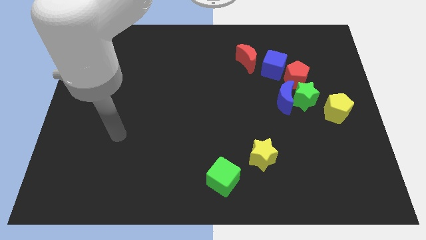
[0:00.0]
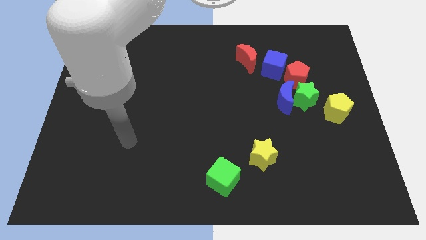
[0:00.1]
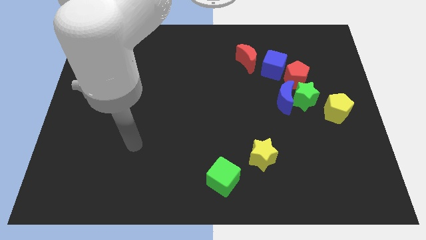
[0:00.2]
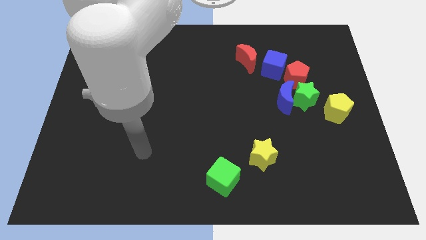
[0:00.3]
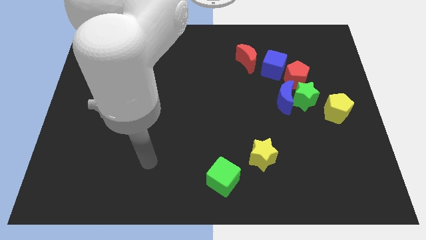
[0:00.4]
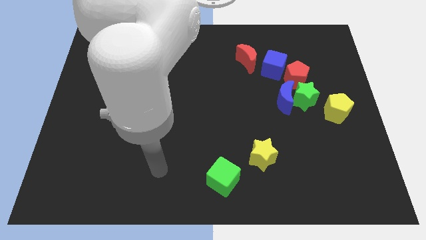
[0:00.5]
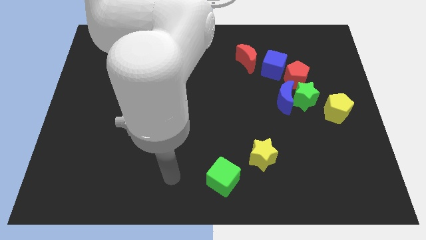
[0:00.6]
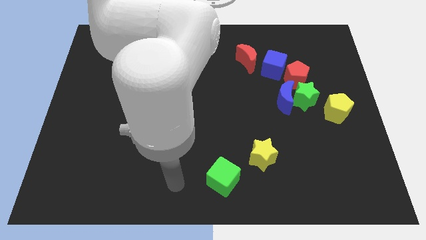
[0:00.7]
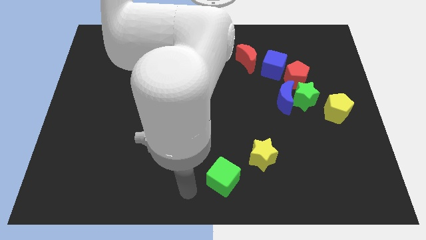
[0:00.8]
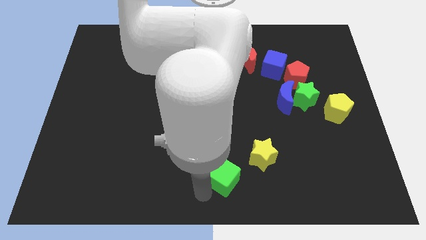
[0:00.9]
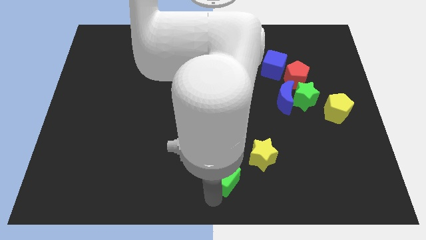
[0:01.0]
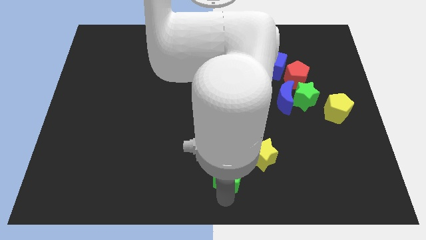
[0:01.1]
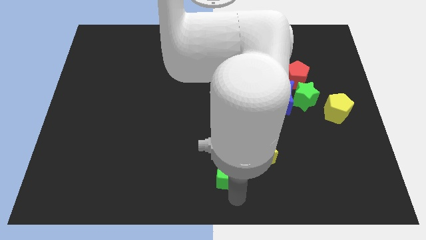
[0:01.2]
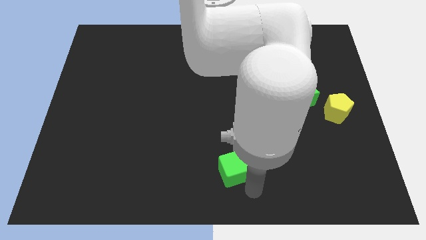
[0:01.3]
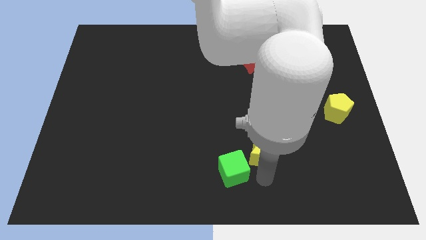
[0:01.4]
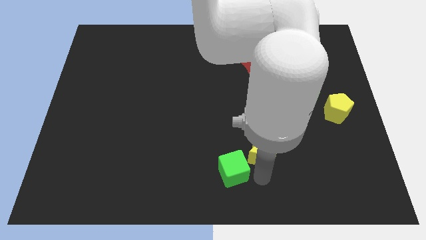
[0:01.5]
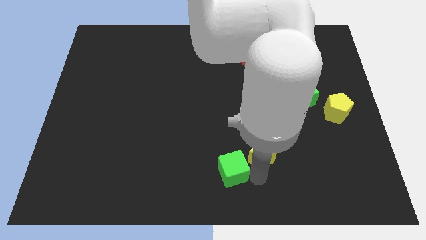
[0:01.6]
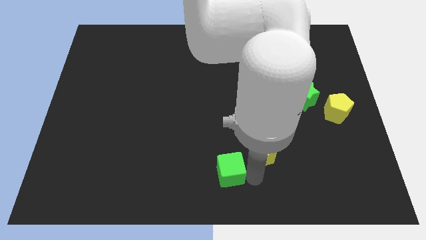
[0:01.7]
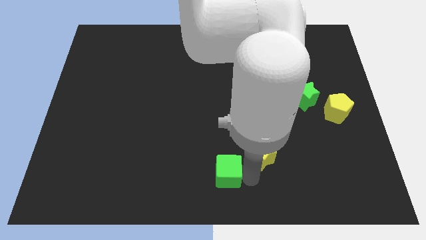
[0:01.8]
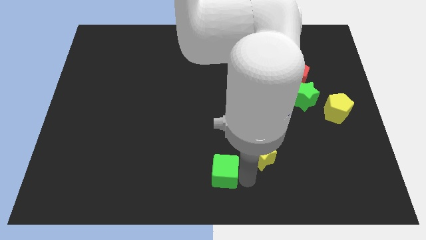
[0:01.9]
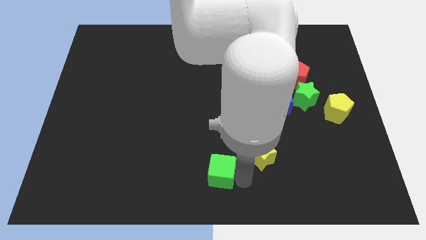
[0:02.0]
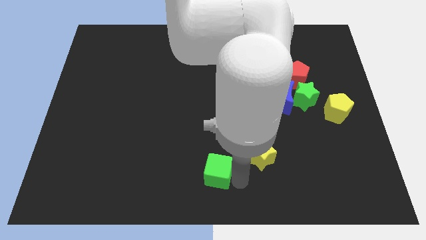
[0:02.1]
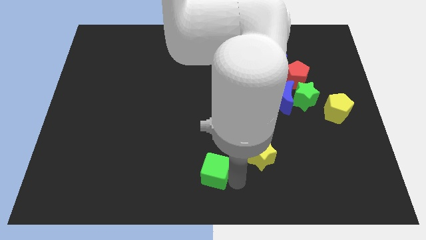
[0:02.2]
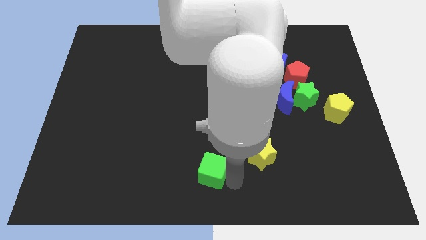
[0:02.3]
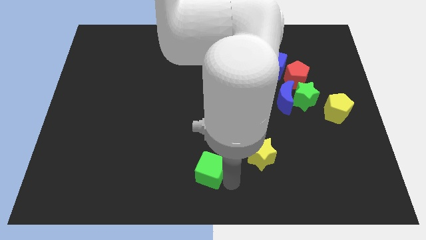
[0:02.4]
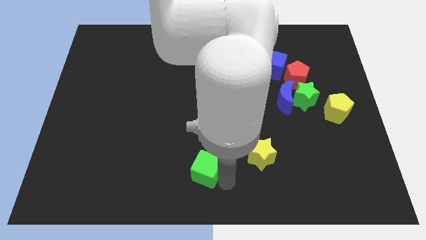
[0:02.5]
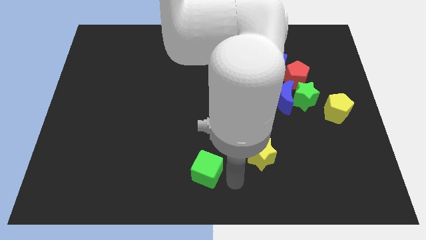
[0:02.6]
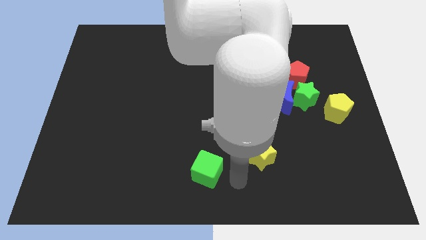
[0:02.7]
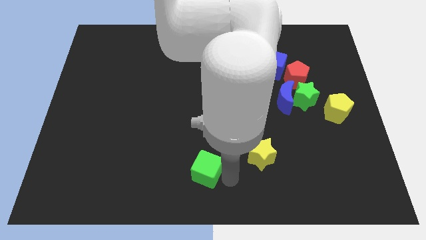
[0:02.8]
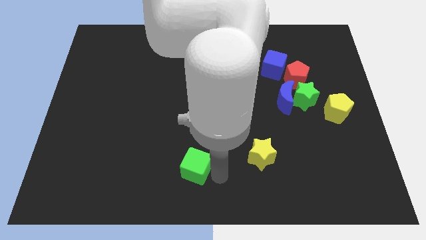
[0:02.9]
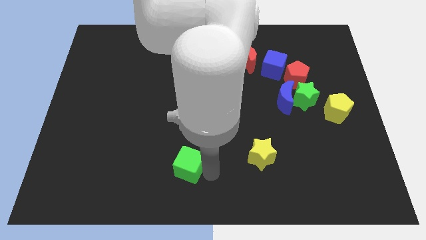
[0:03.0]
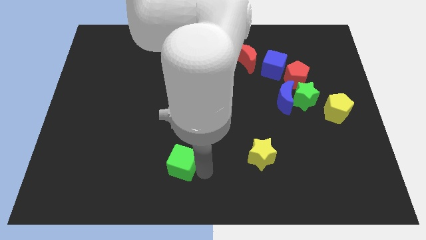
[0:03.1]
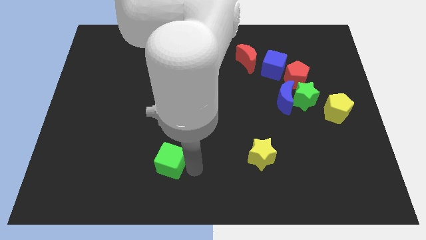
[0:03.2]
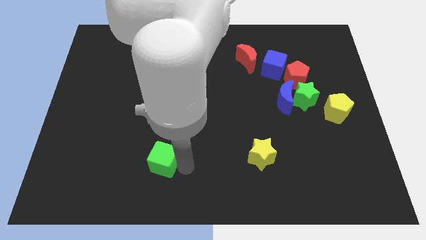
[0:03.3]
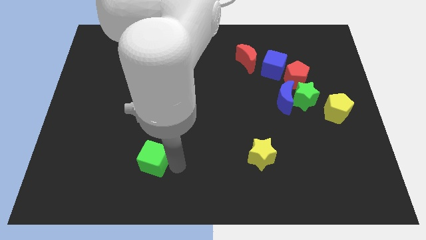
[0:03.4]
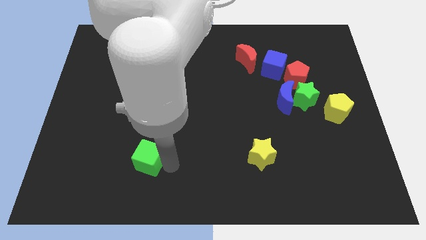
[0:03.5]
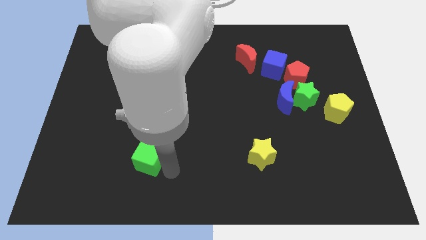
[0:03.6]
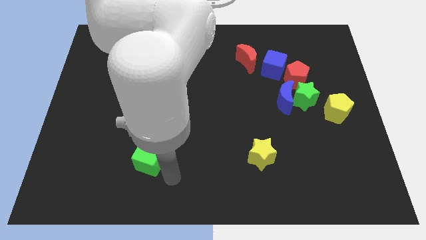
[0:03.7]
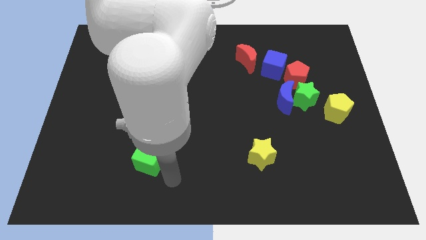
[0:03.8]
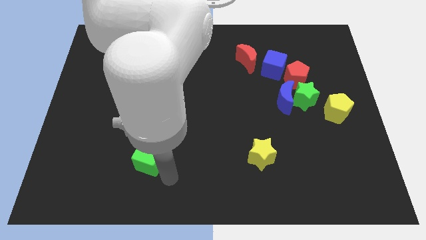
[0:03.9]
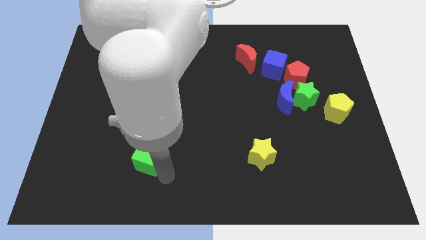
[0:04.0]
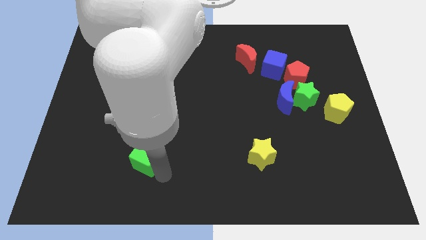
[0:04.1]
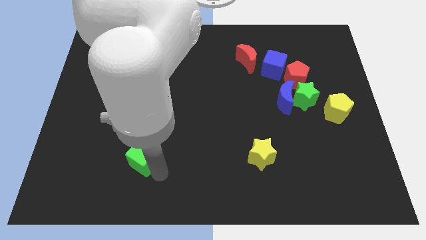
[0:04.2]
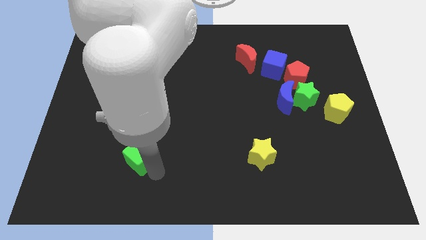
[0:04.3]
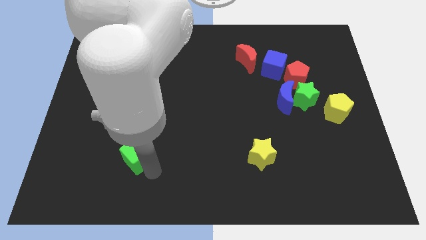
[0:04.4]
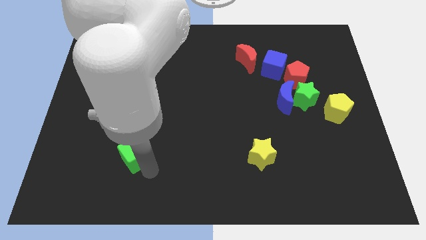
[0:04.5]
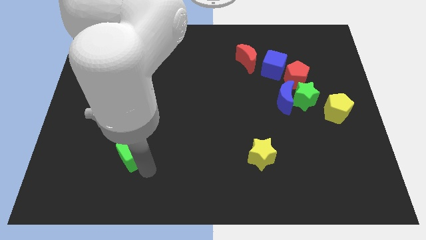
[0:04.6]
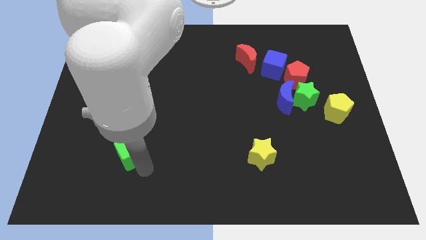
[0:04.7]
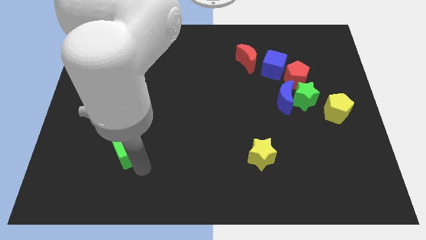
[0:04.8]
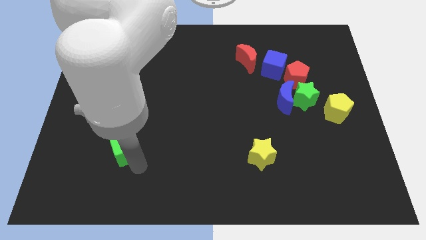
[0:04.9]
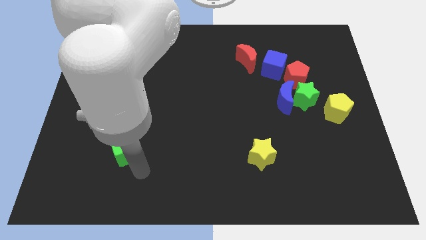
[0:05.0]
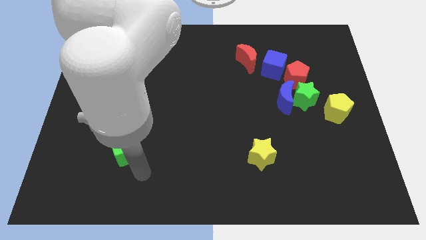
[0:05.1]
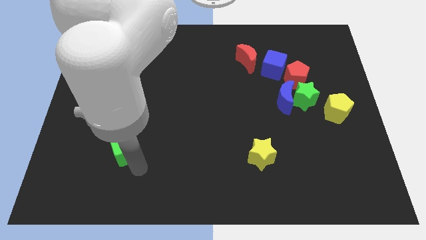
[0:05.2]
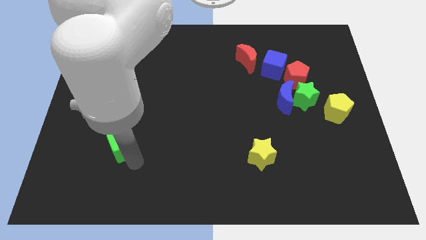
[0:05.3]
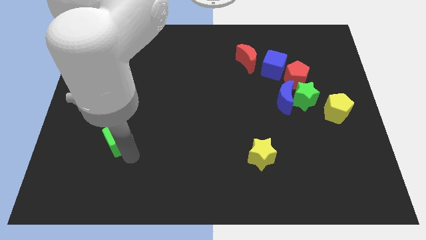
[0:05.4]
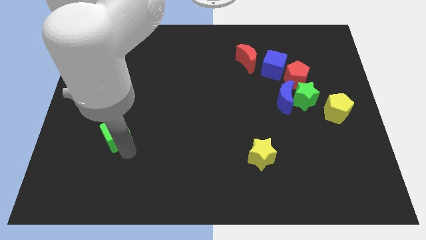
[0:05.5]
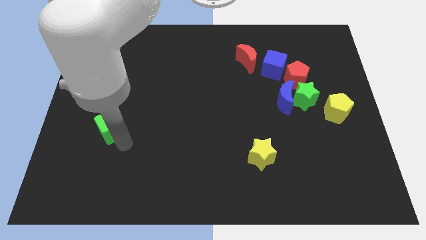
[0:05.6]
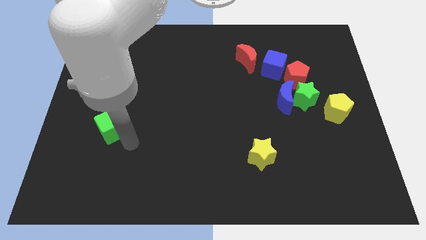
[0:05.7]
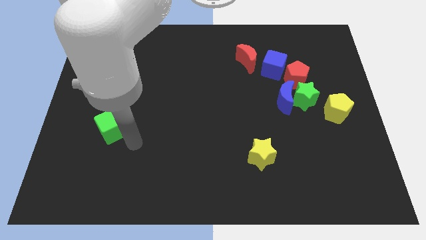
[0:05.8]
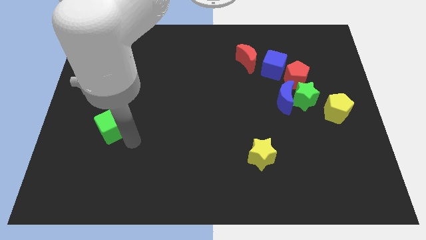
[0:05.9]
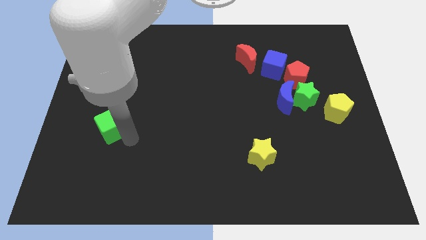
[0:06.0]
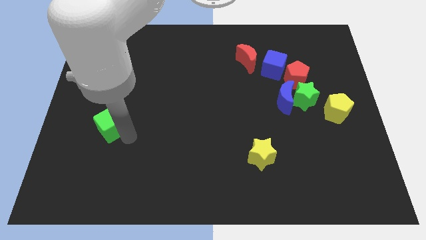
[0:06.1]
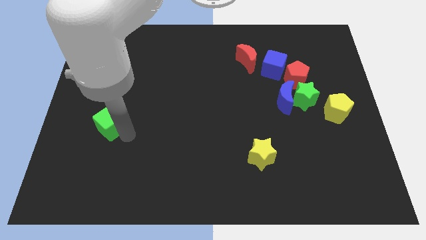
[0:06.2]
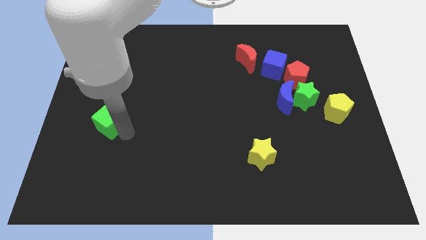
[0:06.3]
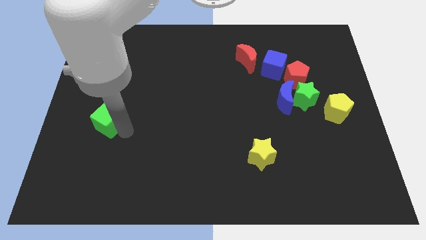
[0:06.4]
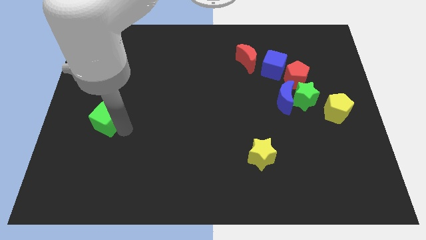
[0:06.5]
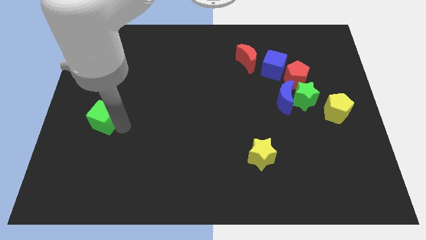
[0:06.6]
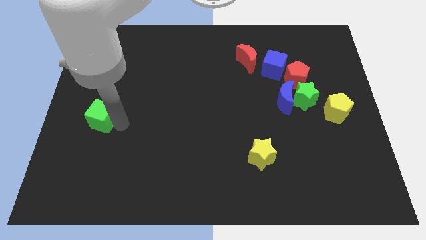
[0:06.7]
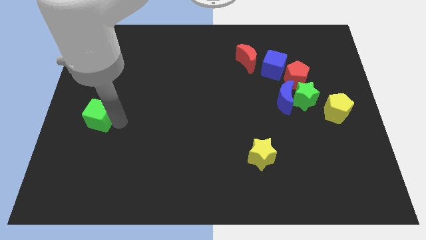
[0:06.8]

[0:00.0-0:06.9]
slide the green cube to the left side
